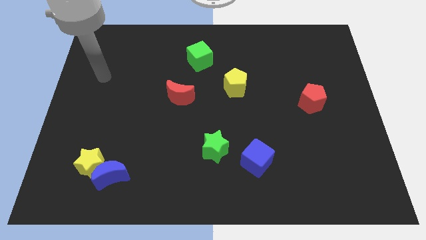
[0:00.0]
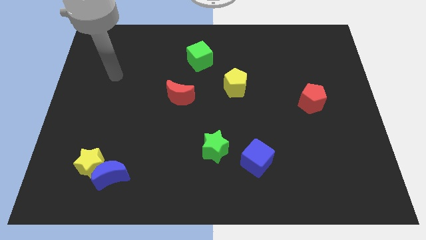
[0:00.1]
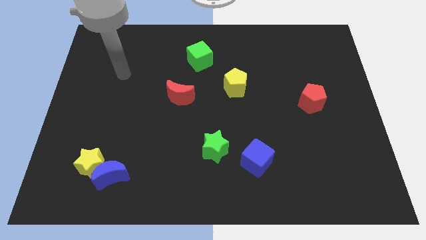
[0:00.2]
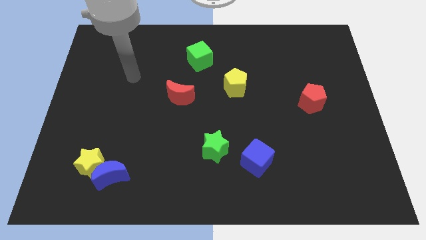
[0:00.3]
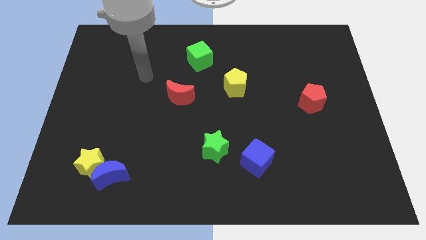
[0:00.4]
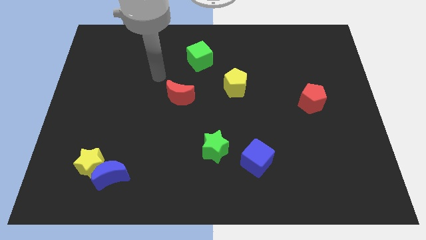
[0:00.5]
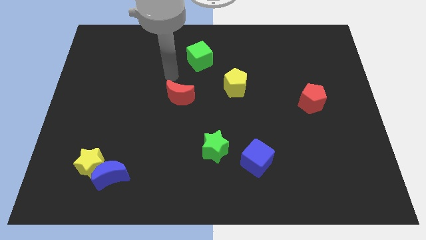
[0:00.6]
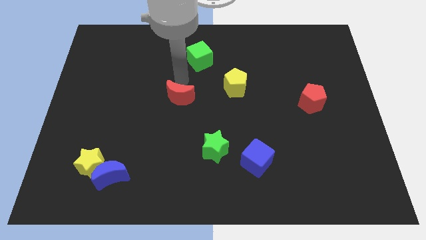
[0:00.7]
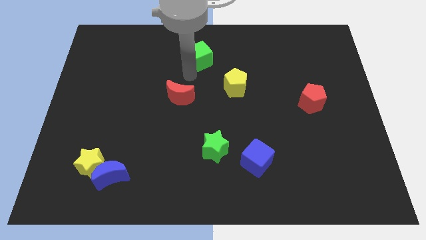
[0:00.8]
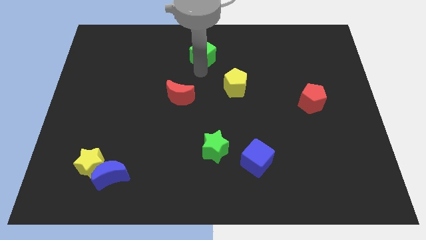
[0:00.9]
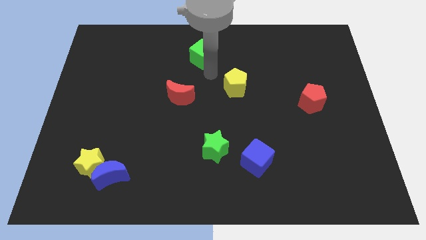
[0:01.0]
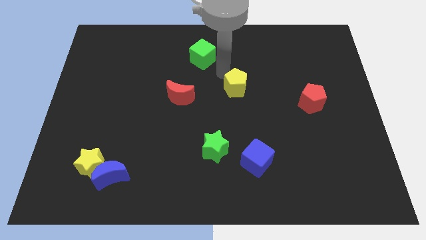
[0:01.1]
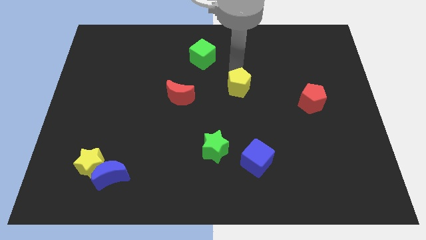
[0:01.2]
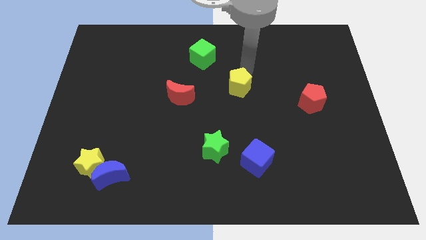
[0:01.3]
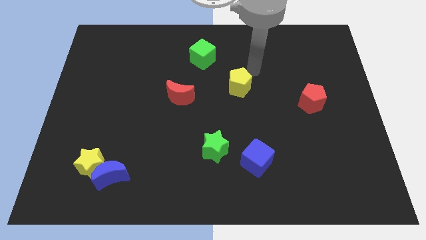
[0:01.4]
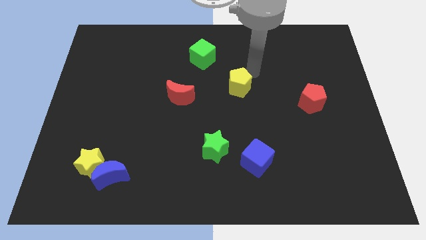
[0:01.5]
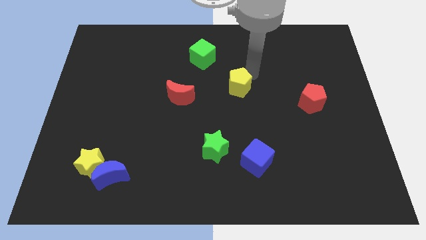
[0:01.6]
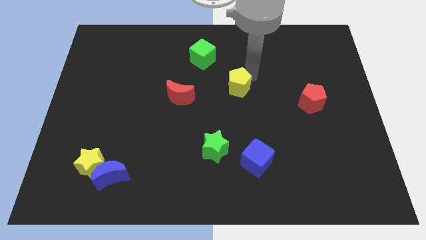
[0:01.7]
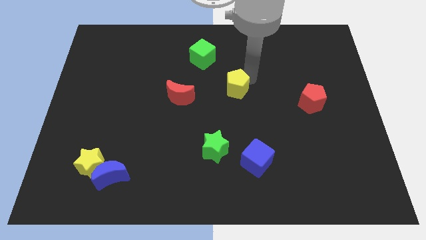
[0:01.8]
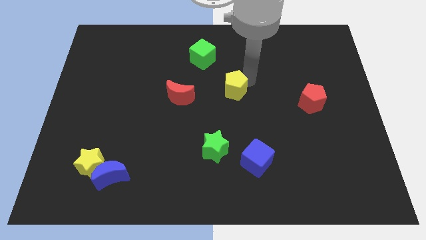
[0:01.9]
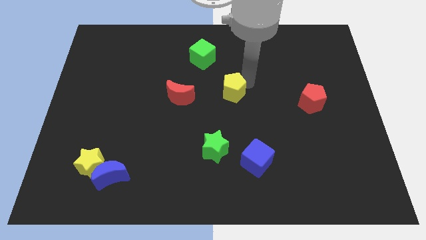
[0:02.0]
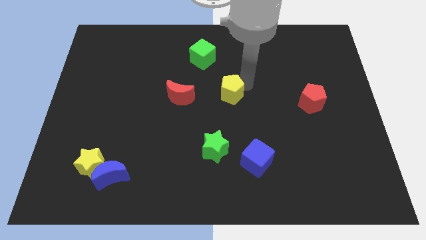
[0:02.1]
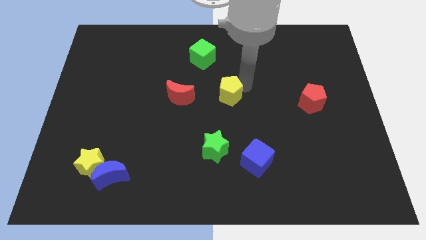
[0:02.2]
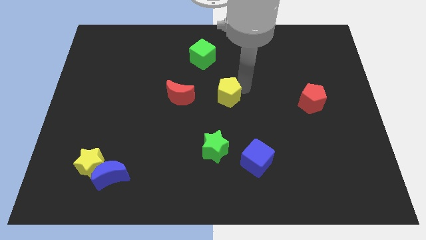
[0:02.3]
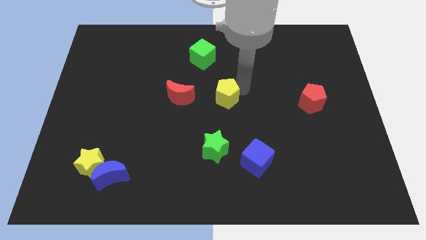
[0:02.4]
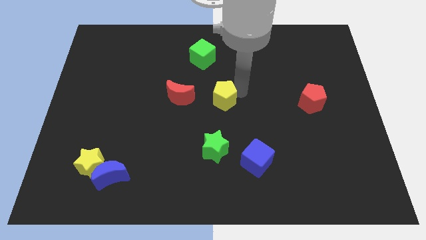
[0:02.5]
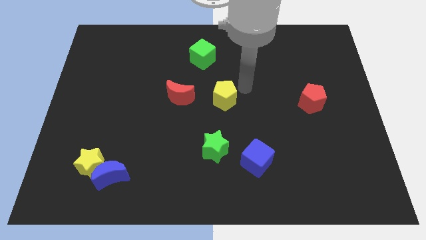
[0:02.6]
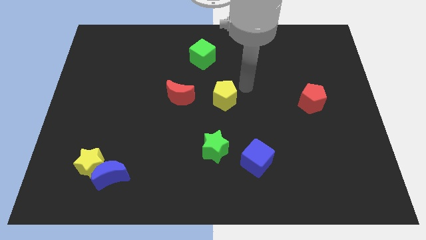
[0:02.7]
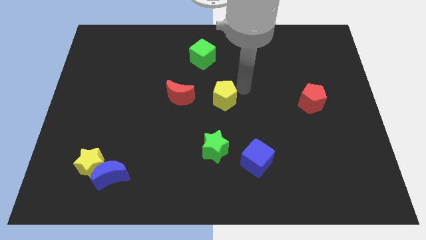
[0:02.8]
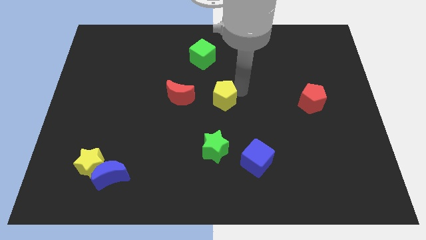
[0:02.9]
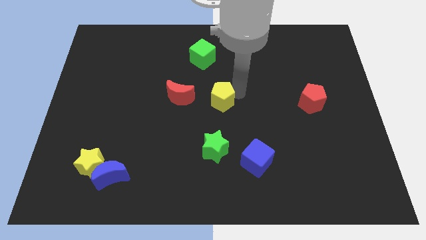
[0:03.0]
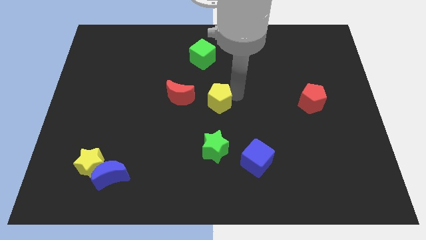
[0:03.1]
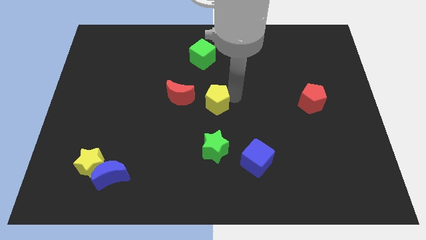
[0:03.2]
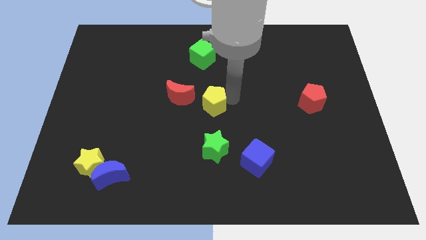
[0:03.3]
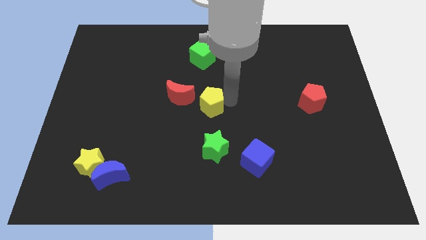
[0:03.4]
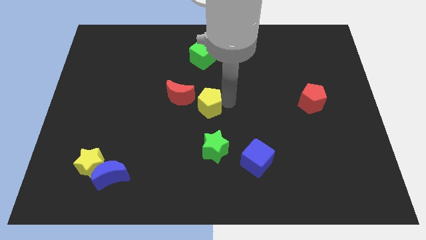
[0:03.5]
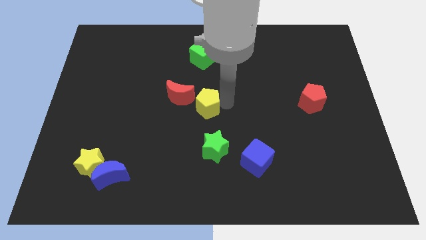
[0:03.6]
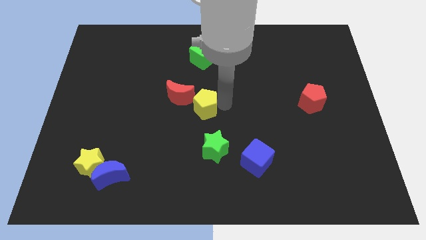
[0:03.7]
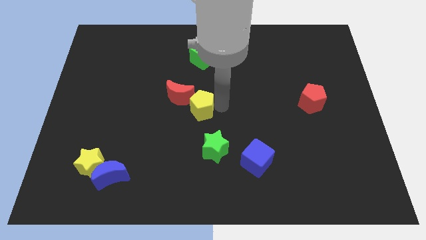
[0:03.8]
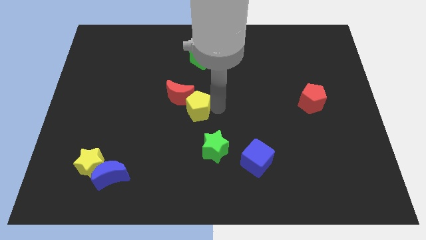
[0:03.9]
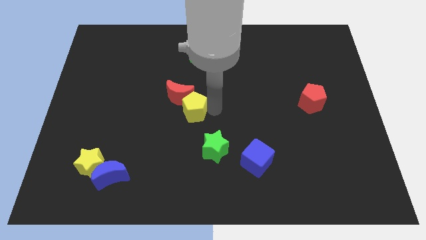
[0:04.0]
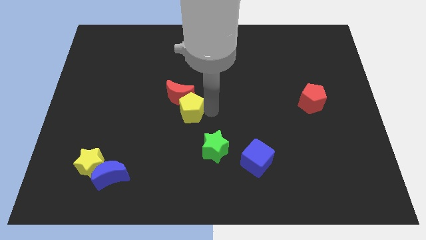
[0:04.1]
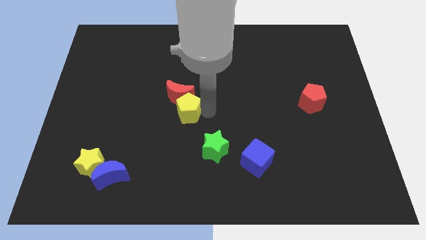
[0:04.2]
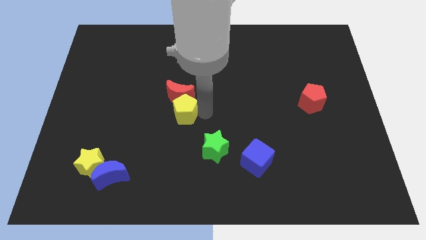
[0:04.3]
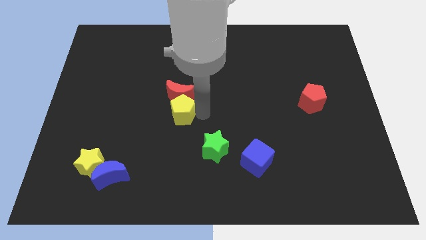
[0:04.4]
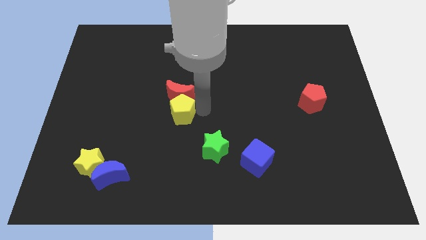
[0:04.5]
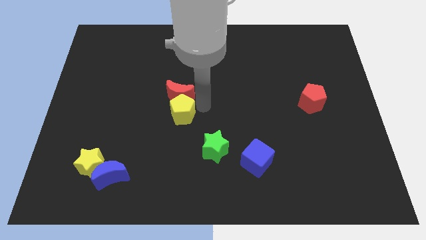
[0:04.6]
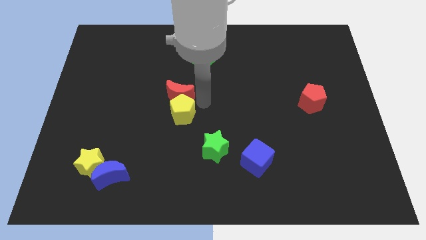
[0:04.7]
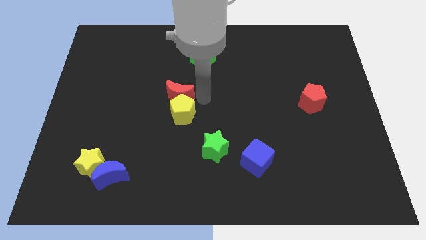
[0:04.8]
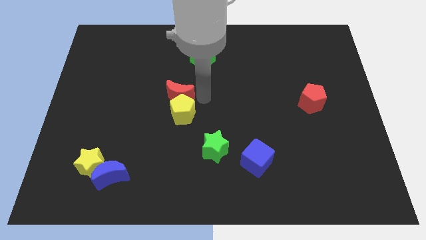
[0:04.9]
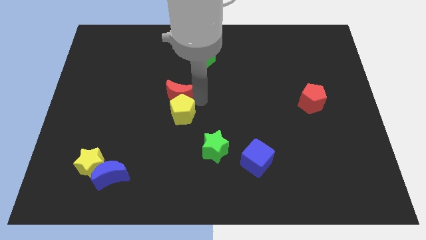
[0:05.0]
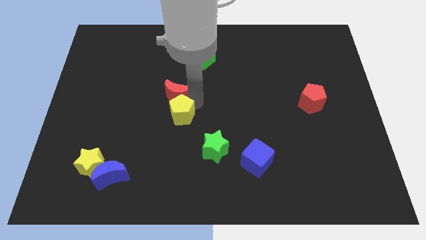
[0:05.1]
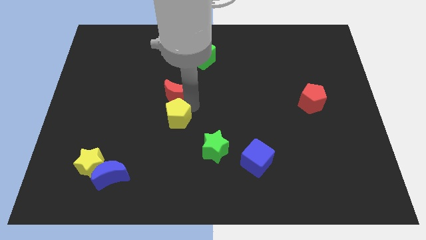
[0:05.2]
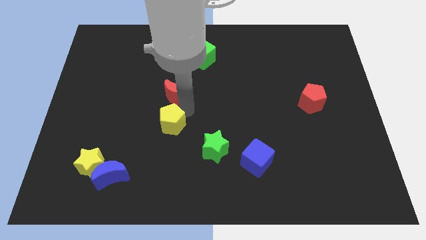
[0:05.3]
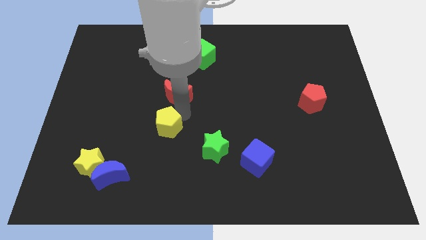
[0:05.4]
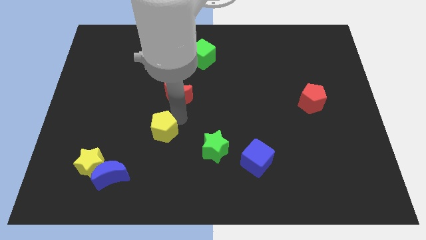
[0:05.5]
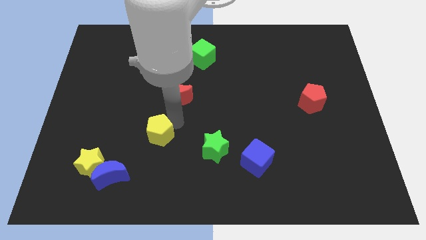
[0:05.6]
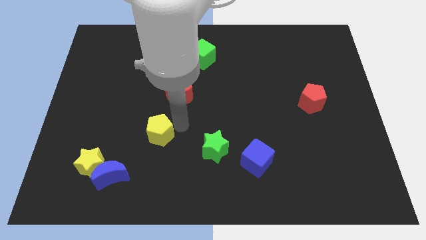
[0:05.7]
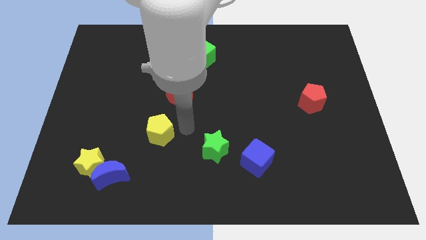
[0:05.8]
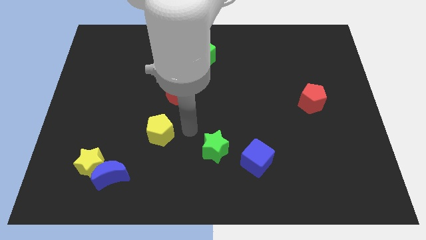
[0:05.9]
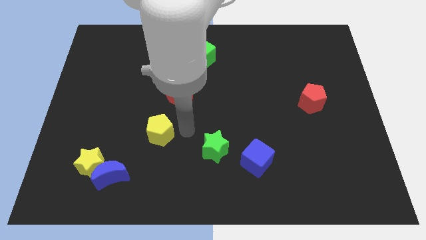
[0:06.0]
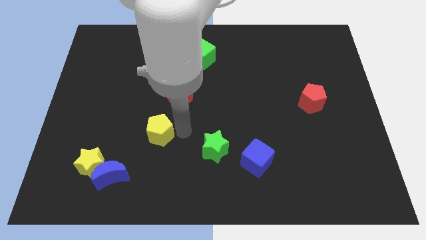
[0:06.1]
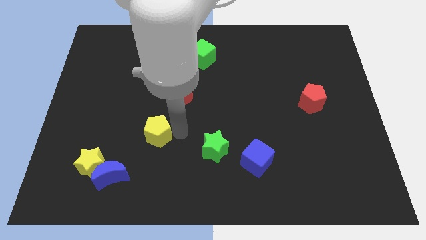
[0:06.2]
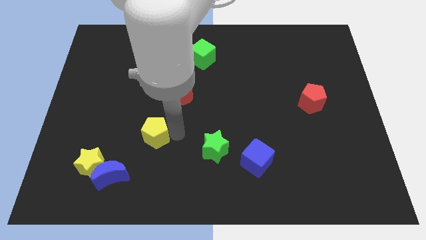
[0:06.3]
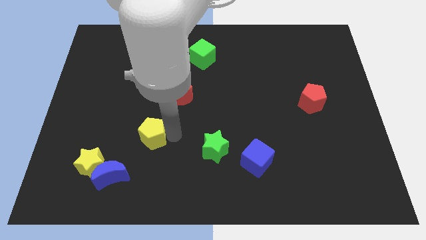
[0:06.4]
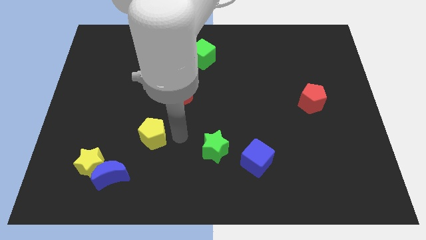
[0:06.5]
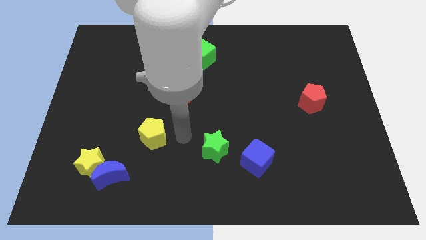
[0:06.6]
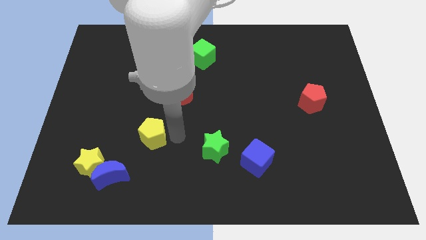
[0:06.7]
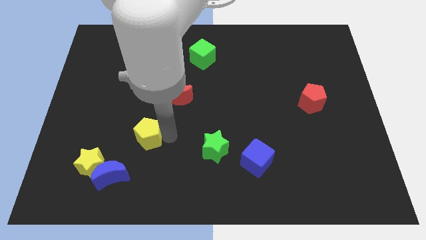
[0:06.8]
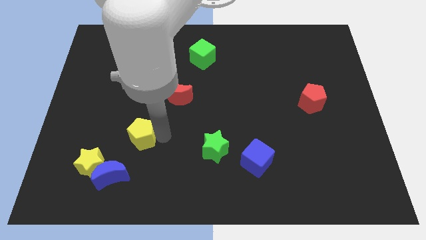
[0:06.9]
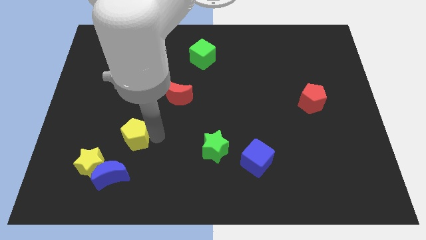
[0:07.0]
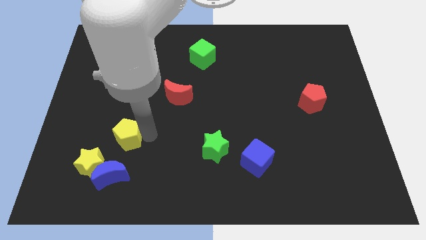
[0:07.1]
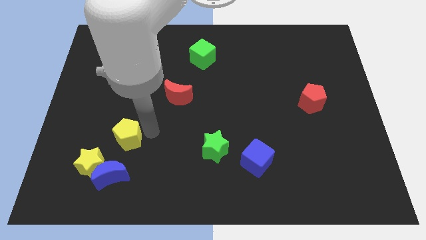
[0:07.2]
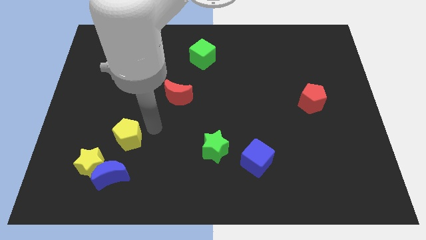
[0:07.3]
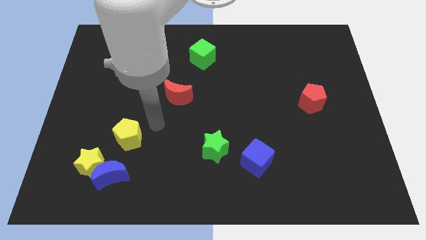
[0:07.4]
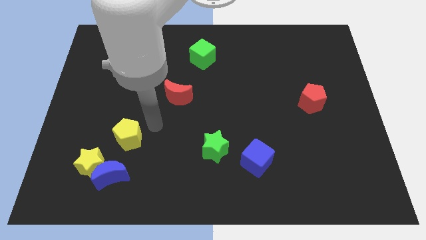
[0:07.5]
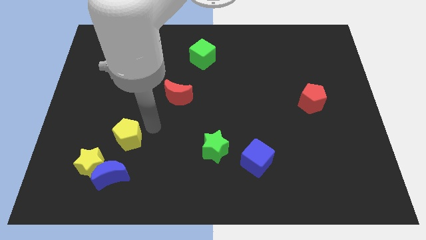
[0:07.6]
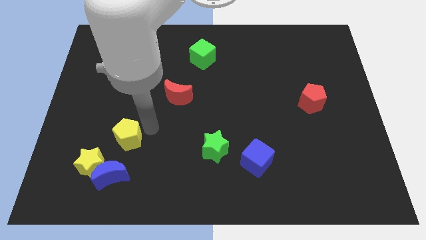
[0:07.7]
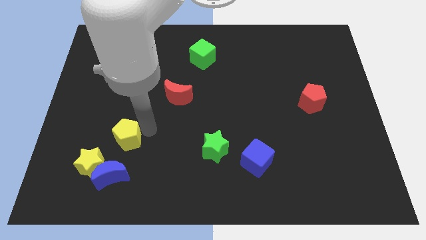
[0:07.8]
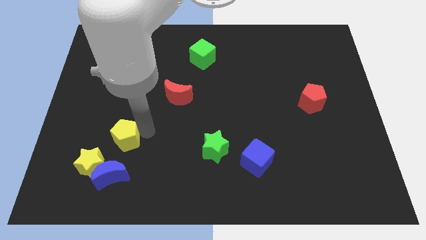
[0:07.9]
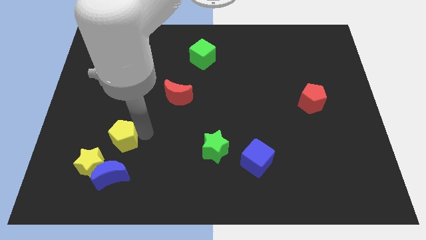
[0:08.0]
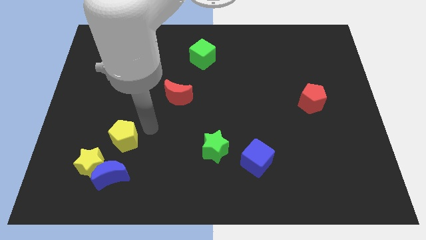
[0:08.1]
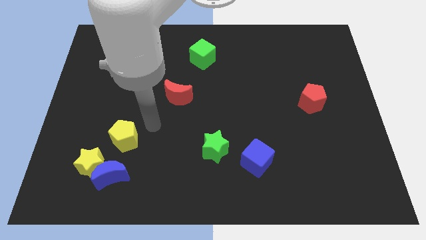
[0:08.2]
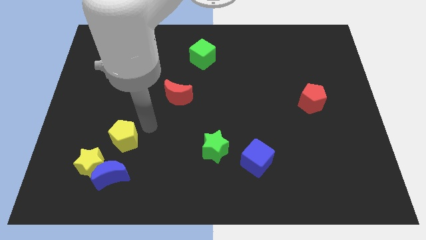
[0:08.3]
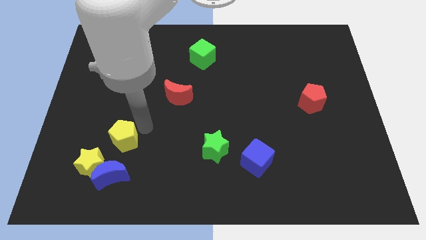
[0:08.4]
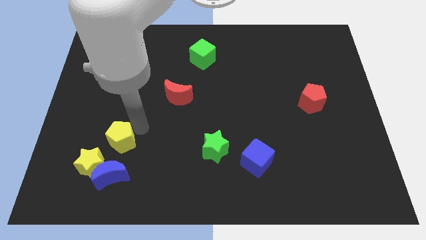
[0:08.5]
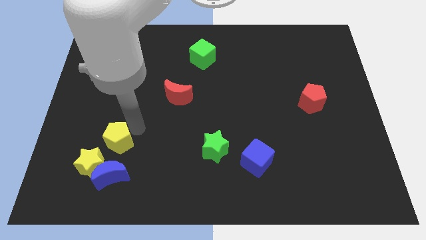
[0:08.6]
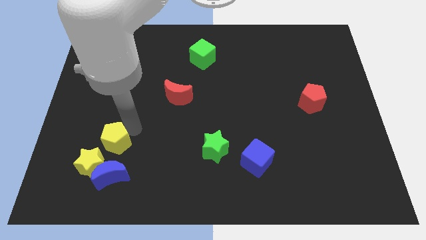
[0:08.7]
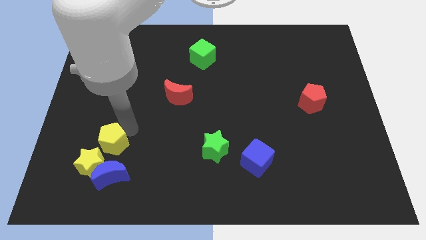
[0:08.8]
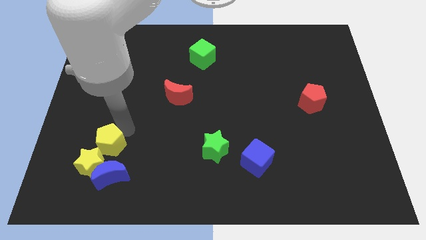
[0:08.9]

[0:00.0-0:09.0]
slide the yellow pentagon to the top left side of the blue moon
